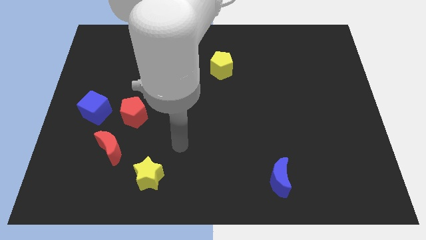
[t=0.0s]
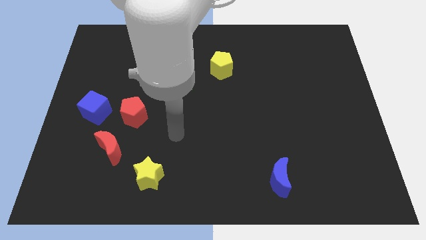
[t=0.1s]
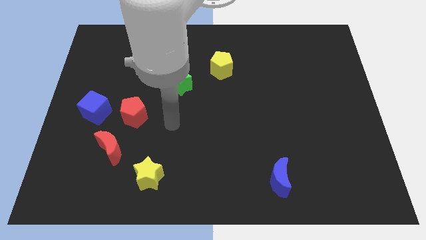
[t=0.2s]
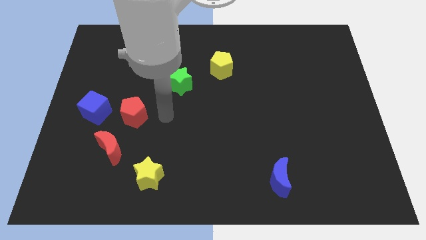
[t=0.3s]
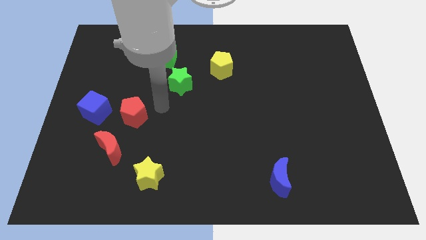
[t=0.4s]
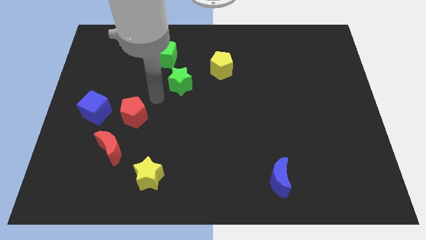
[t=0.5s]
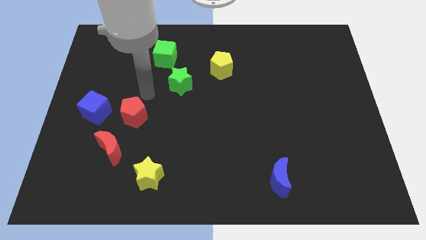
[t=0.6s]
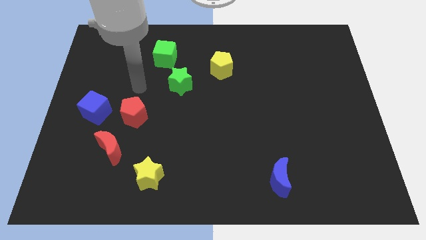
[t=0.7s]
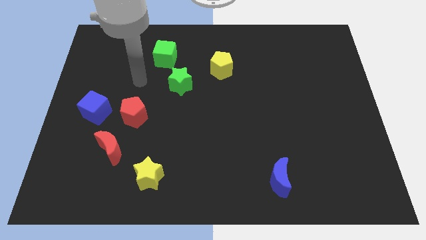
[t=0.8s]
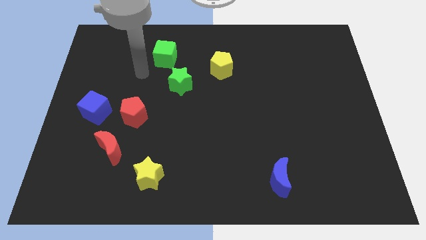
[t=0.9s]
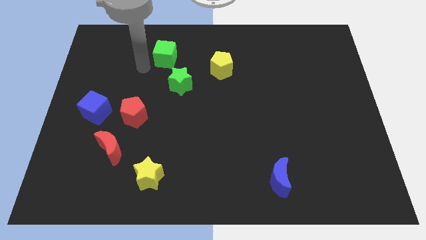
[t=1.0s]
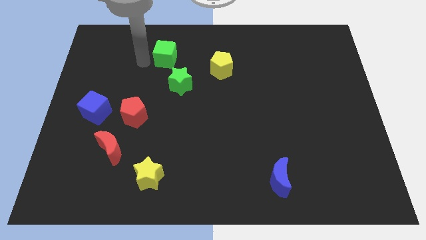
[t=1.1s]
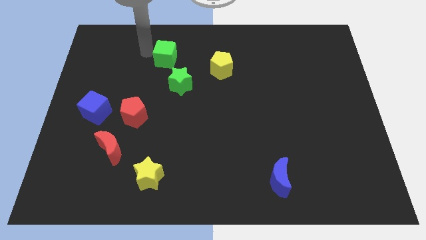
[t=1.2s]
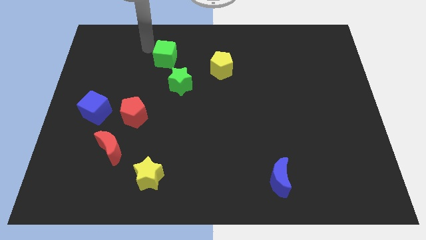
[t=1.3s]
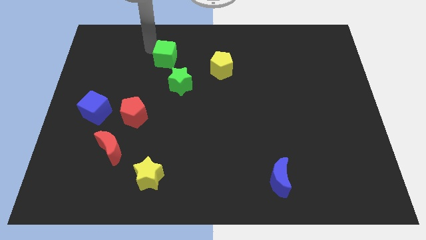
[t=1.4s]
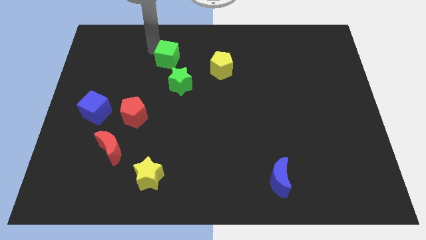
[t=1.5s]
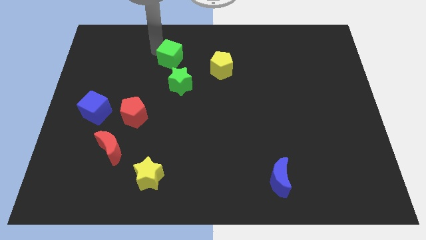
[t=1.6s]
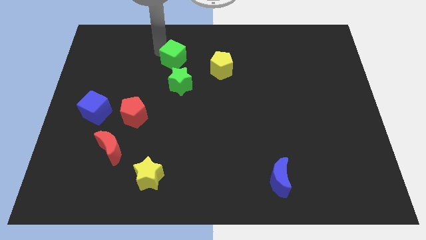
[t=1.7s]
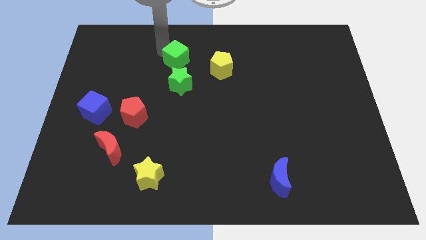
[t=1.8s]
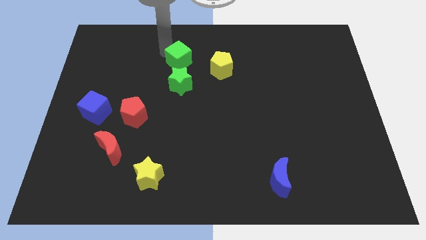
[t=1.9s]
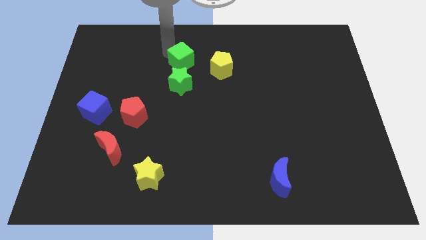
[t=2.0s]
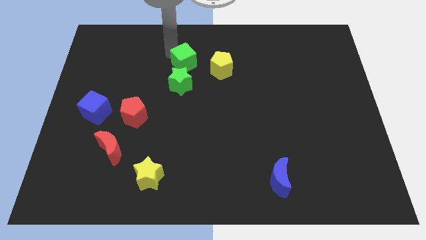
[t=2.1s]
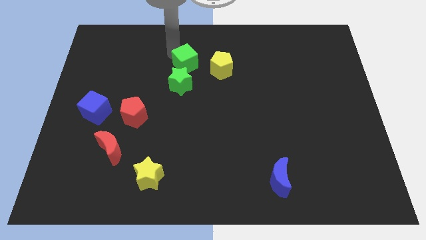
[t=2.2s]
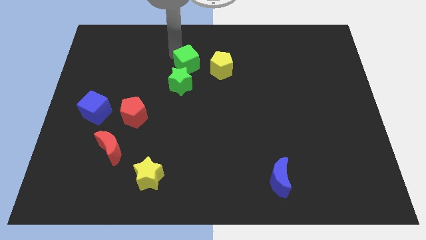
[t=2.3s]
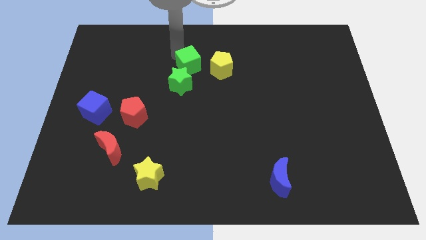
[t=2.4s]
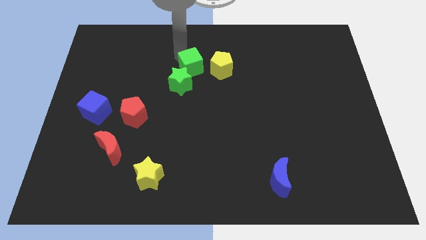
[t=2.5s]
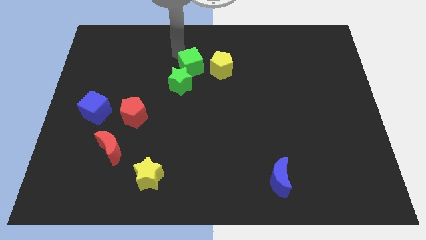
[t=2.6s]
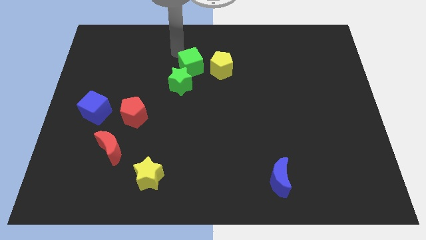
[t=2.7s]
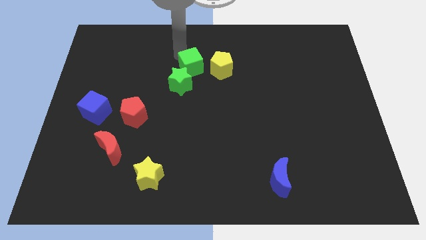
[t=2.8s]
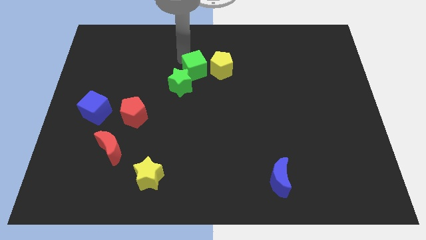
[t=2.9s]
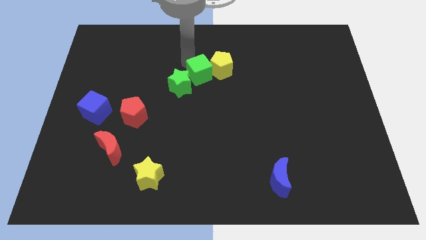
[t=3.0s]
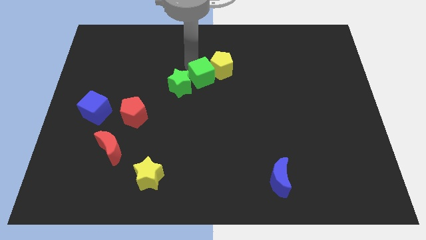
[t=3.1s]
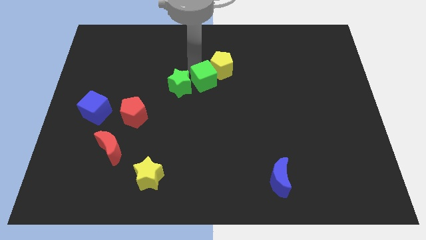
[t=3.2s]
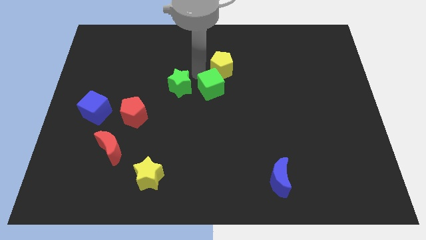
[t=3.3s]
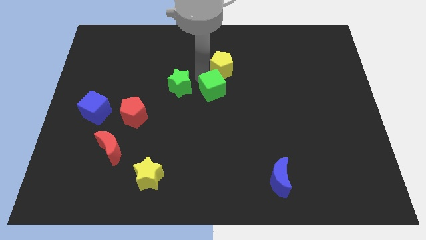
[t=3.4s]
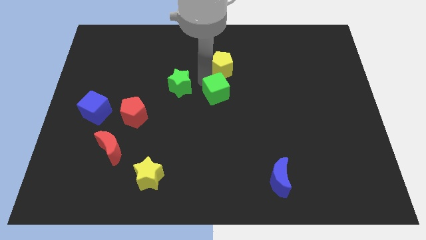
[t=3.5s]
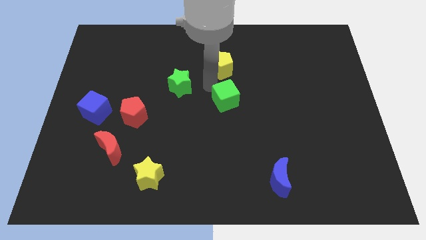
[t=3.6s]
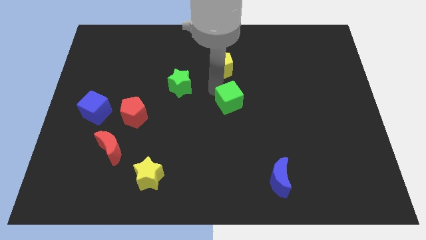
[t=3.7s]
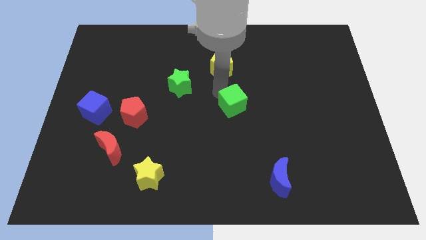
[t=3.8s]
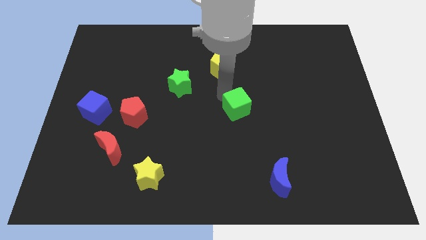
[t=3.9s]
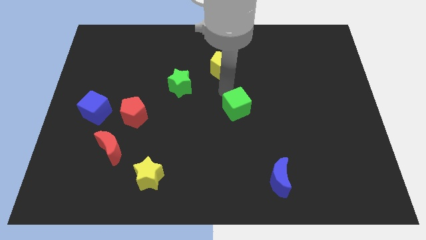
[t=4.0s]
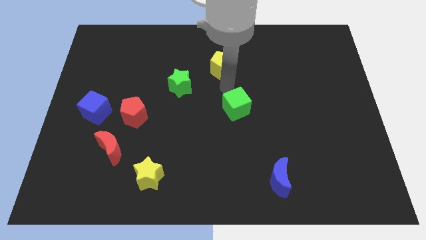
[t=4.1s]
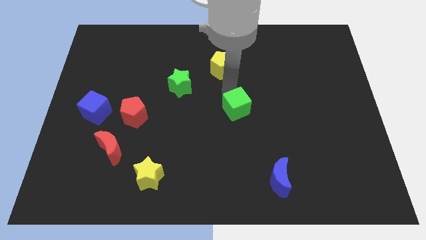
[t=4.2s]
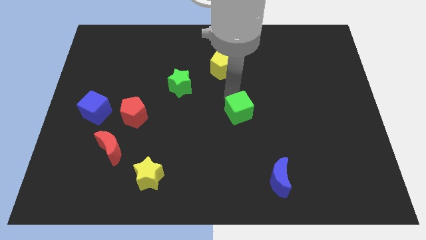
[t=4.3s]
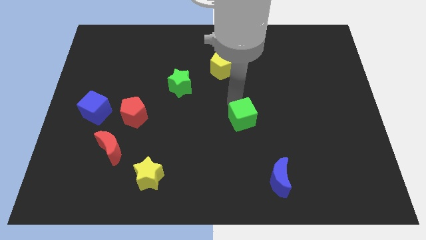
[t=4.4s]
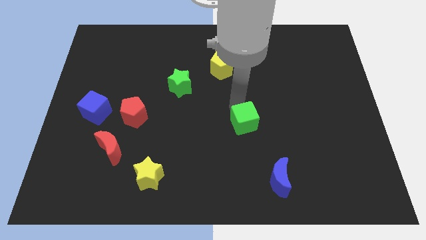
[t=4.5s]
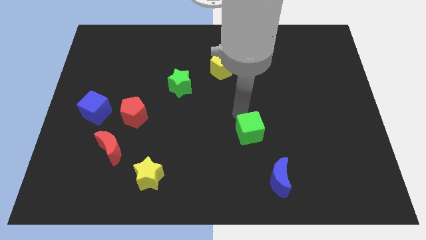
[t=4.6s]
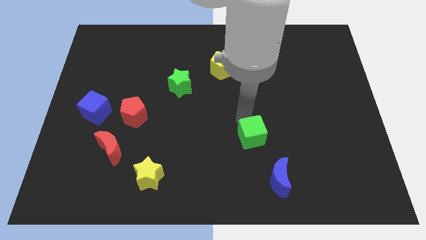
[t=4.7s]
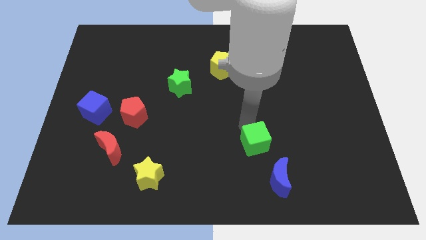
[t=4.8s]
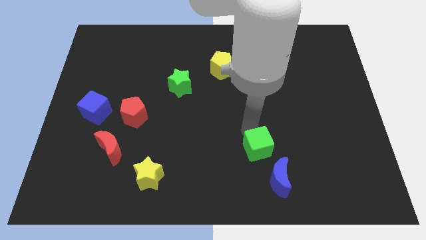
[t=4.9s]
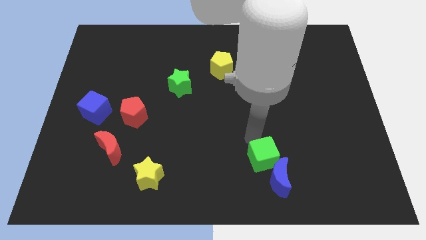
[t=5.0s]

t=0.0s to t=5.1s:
put the green cube towards the blue moon

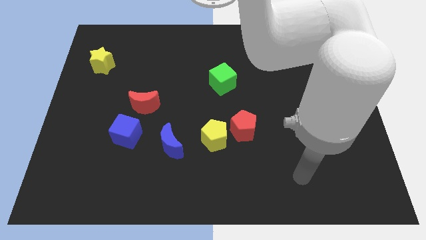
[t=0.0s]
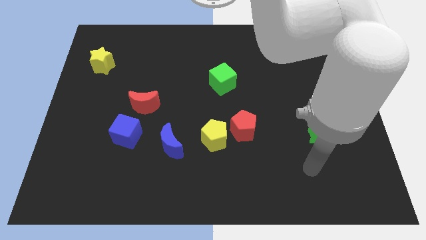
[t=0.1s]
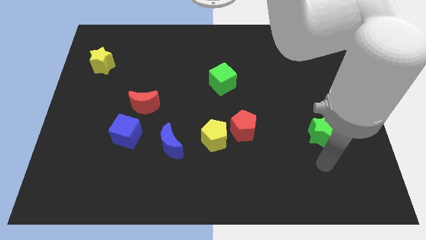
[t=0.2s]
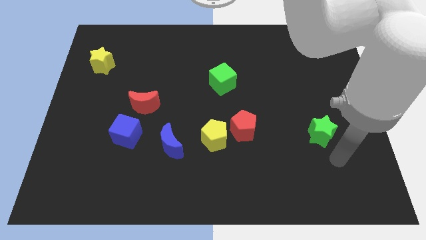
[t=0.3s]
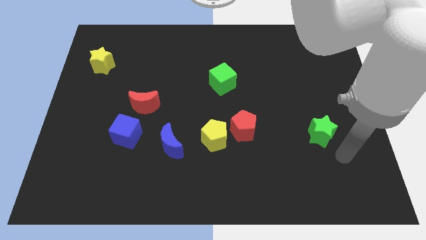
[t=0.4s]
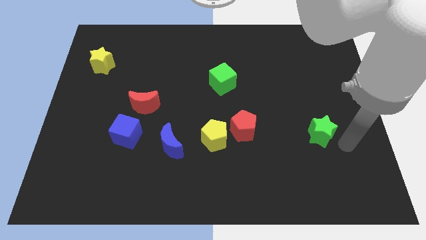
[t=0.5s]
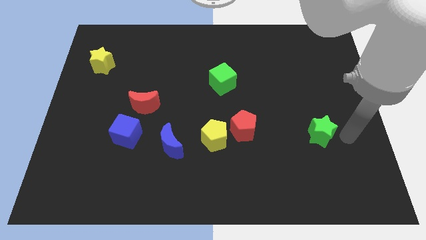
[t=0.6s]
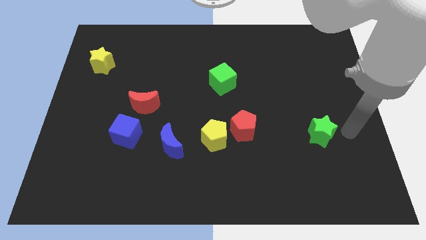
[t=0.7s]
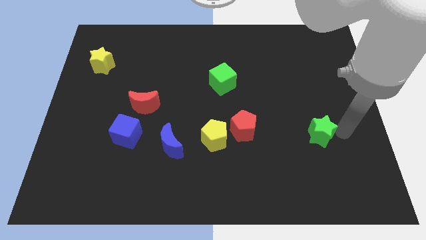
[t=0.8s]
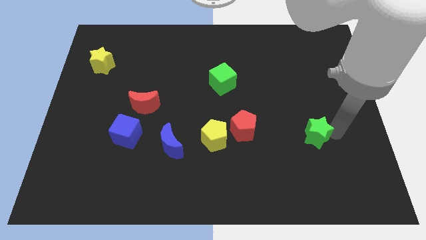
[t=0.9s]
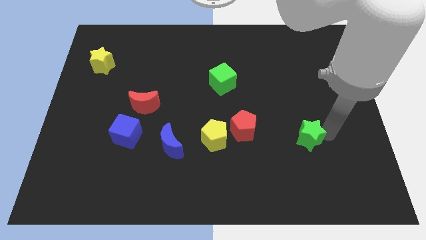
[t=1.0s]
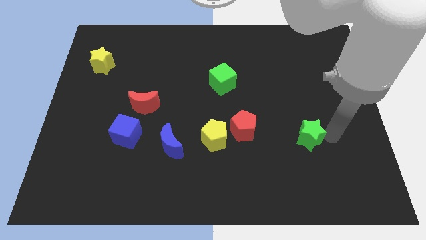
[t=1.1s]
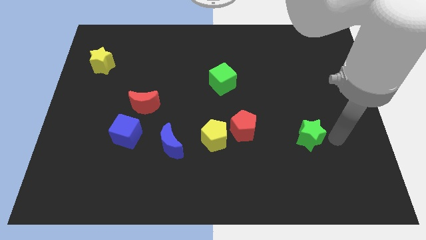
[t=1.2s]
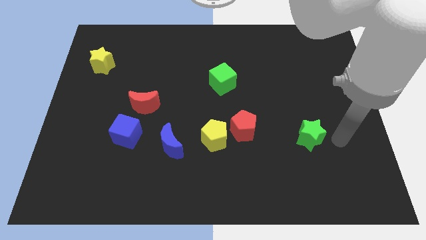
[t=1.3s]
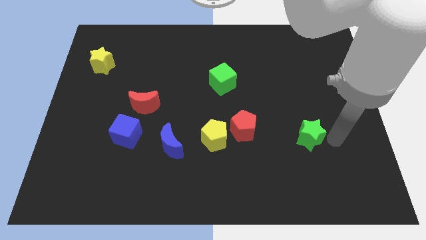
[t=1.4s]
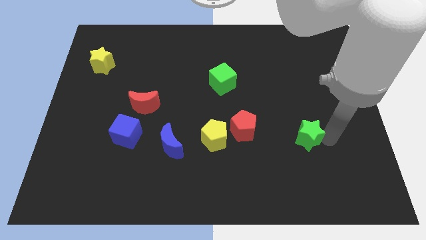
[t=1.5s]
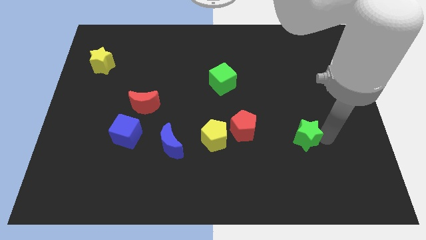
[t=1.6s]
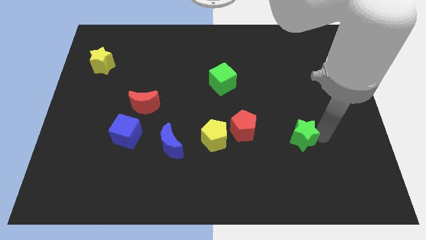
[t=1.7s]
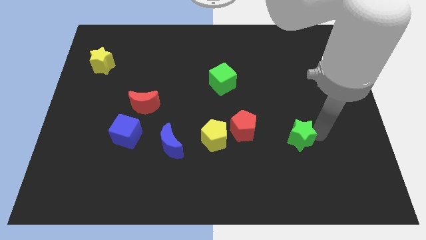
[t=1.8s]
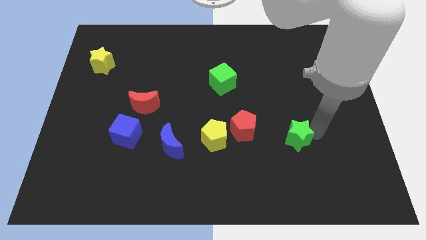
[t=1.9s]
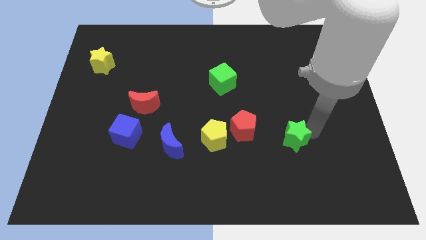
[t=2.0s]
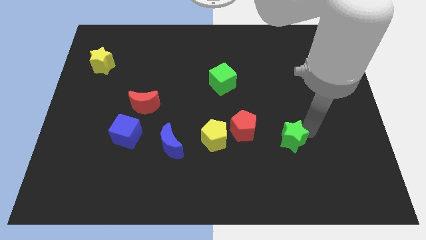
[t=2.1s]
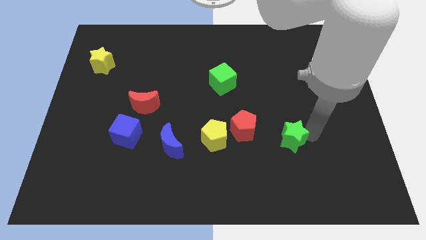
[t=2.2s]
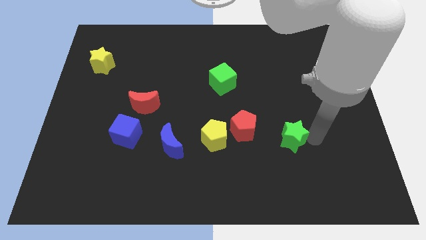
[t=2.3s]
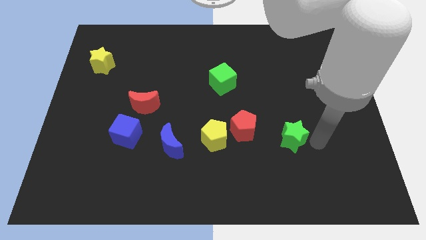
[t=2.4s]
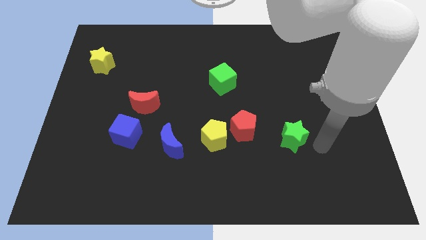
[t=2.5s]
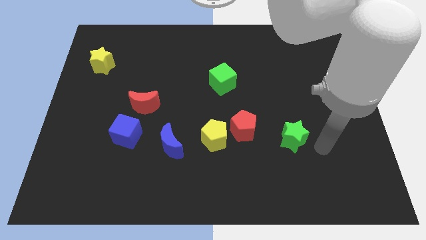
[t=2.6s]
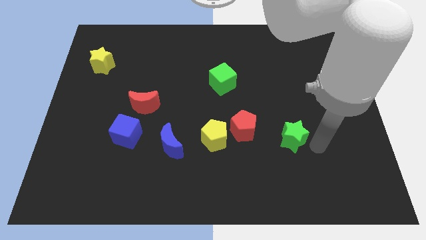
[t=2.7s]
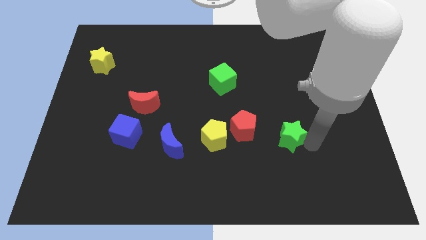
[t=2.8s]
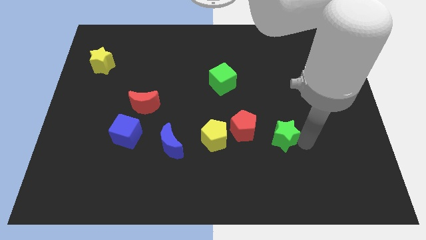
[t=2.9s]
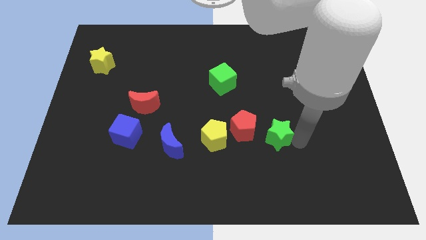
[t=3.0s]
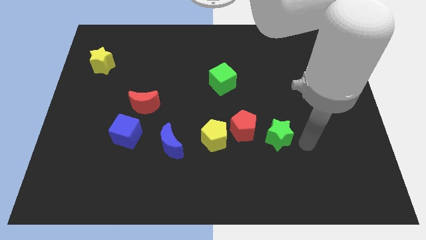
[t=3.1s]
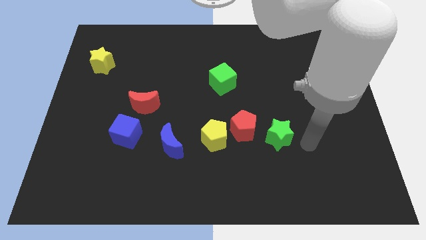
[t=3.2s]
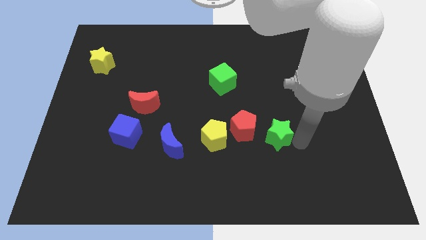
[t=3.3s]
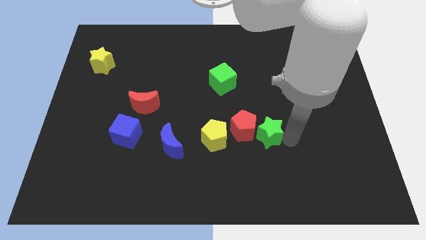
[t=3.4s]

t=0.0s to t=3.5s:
move the green star to the red pentagon
